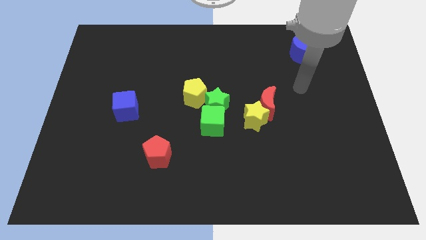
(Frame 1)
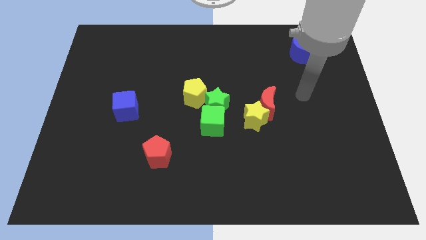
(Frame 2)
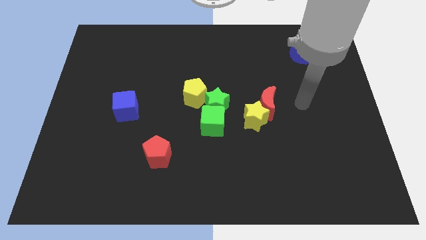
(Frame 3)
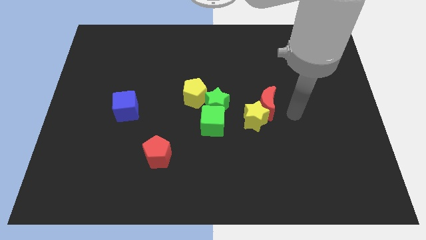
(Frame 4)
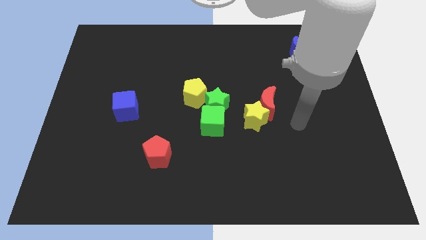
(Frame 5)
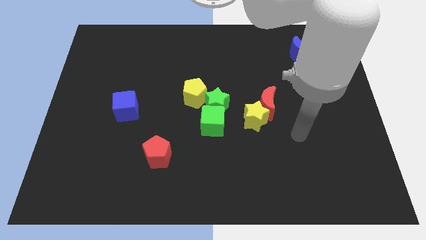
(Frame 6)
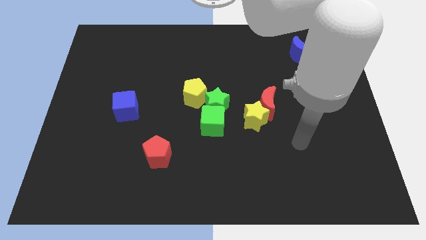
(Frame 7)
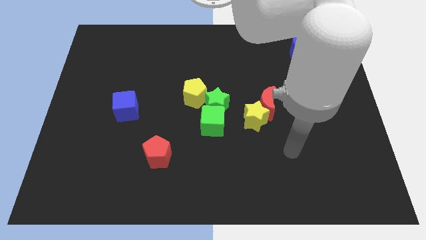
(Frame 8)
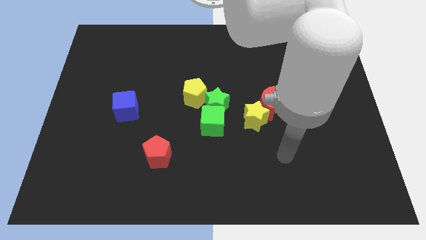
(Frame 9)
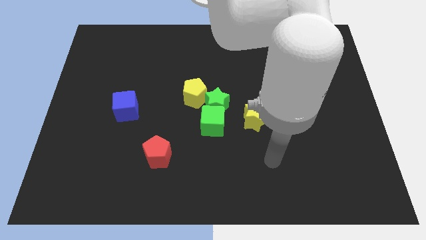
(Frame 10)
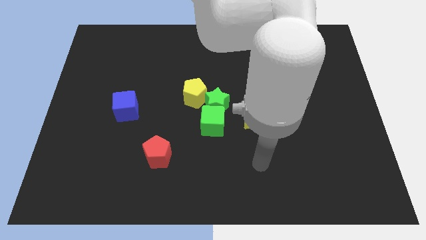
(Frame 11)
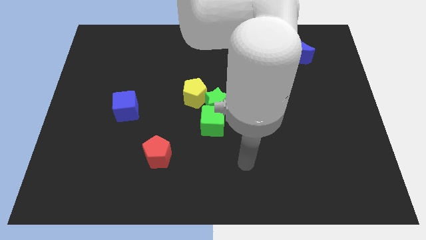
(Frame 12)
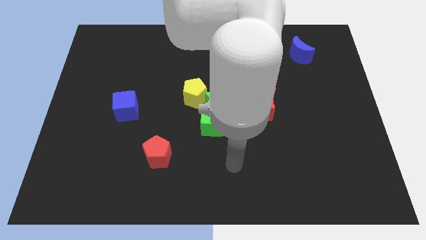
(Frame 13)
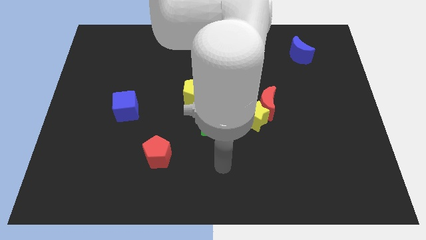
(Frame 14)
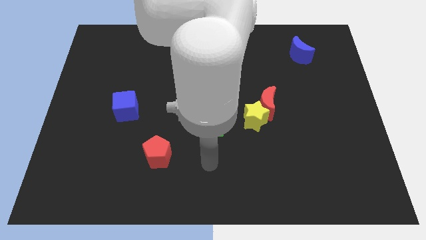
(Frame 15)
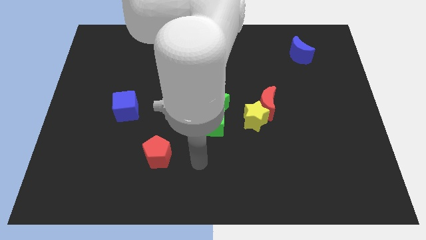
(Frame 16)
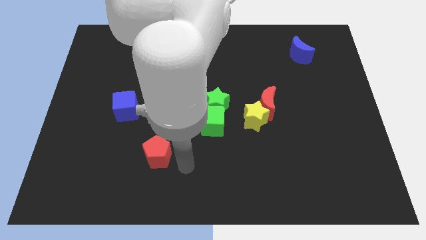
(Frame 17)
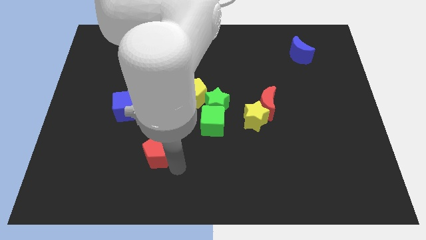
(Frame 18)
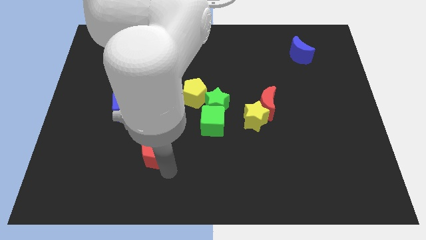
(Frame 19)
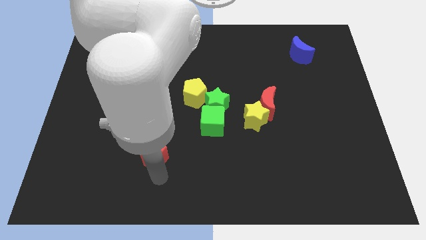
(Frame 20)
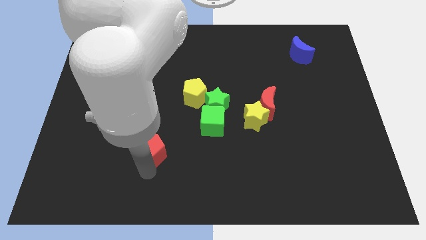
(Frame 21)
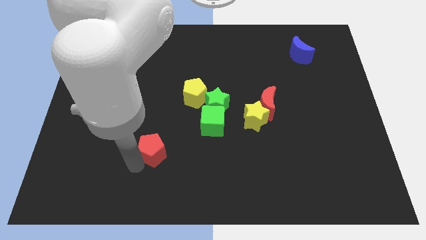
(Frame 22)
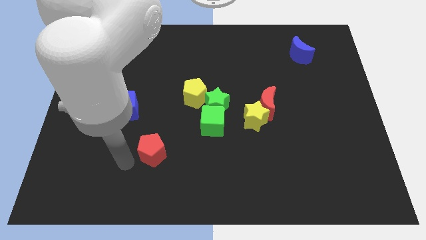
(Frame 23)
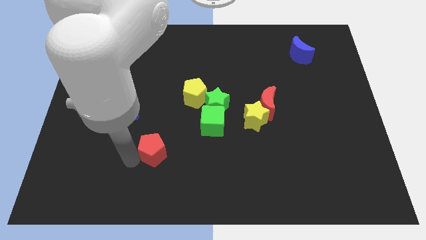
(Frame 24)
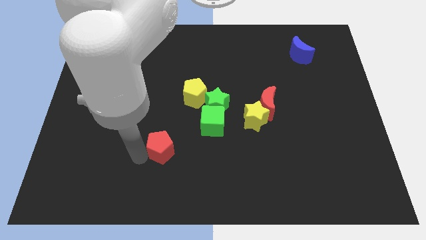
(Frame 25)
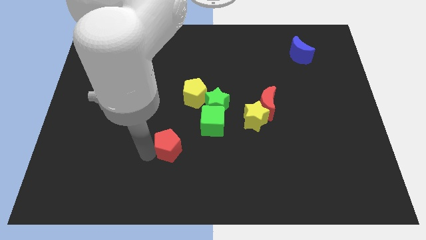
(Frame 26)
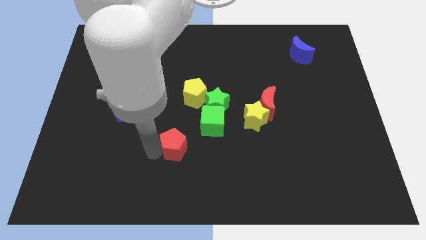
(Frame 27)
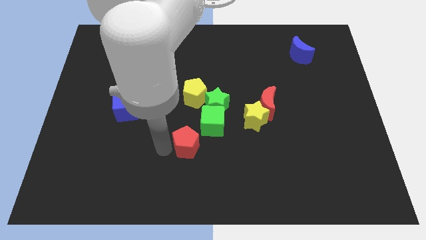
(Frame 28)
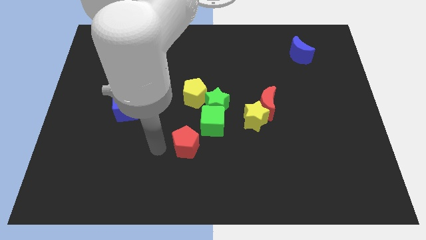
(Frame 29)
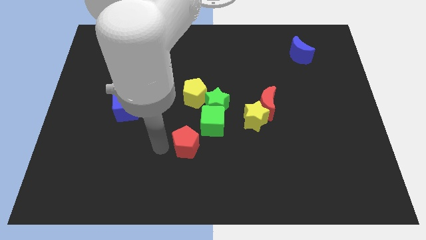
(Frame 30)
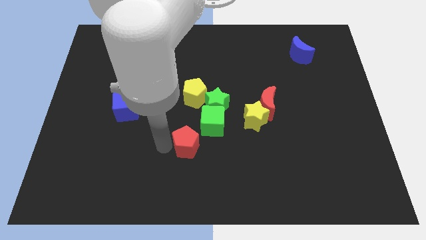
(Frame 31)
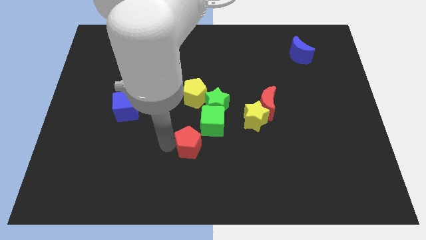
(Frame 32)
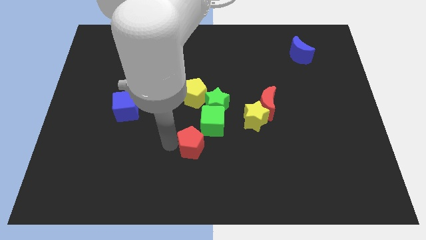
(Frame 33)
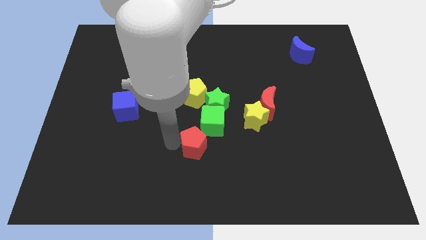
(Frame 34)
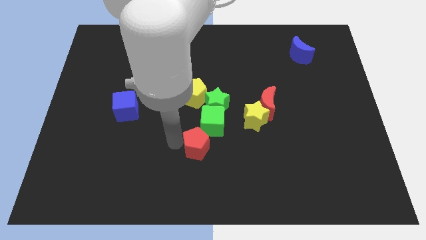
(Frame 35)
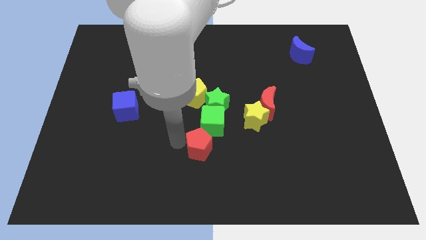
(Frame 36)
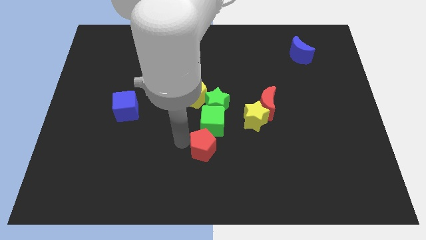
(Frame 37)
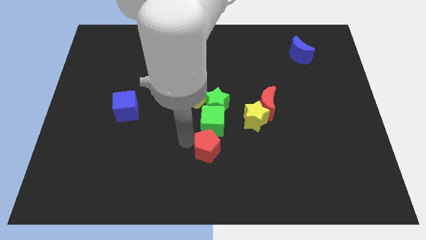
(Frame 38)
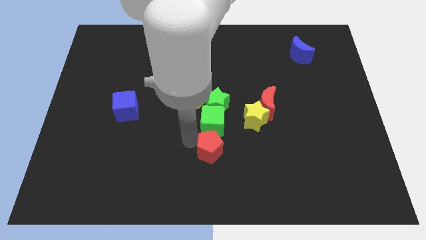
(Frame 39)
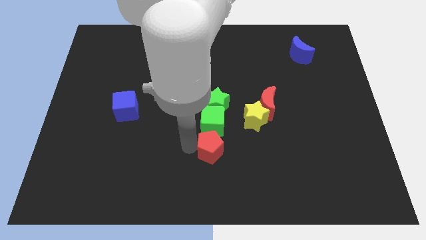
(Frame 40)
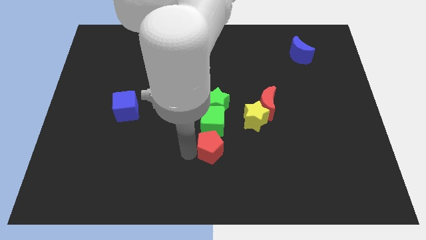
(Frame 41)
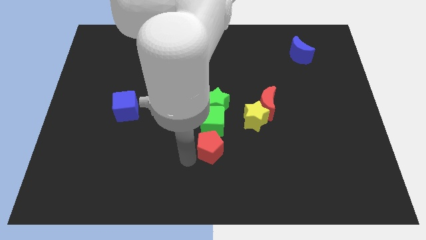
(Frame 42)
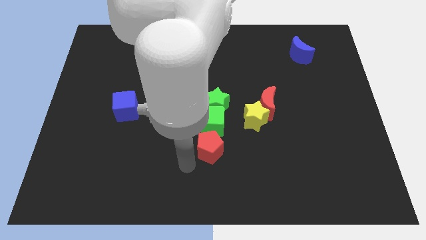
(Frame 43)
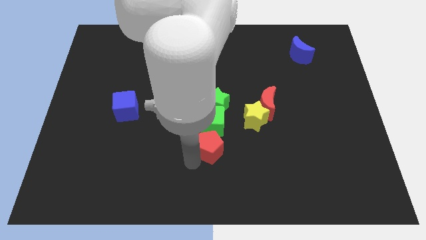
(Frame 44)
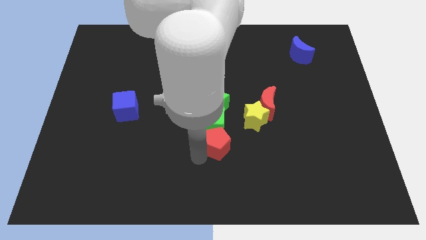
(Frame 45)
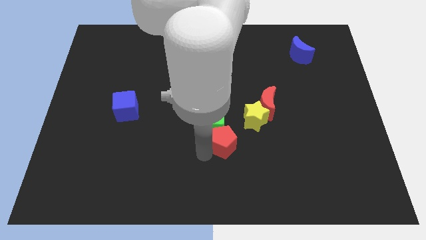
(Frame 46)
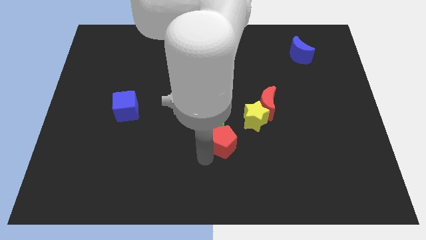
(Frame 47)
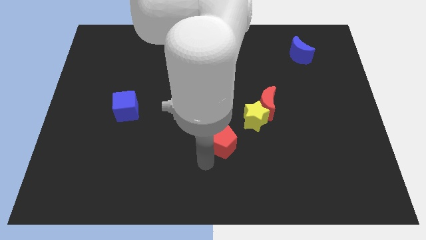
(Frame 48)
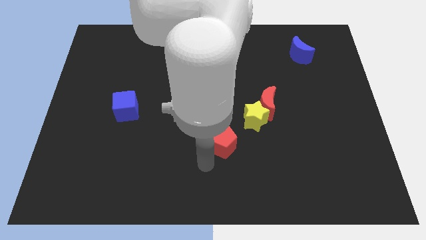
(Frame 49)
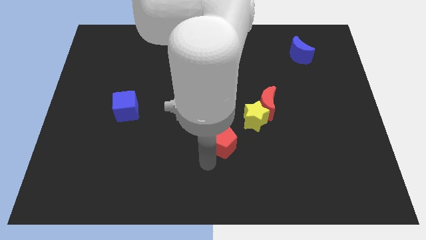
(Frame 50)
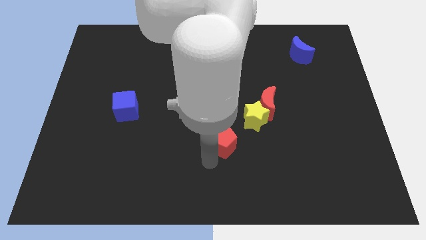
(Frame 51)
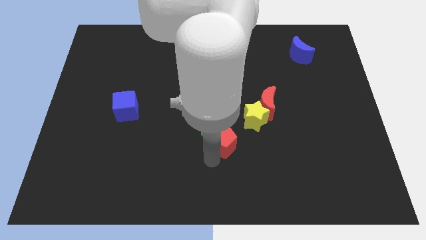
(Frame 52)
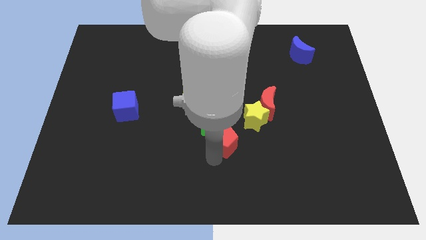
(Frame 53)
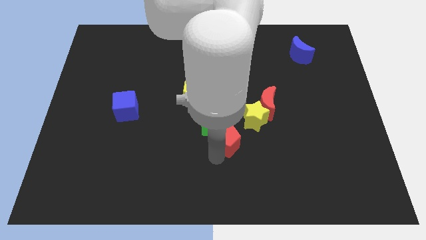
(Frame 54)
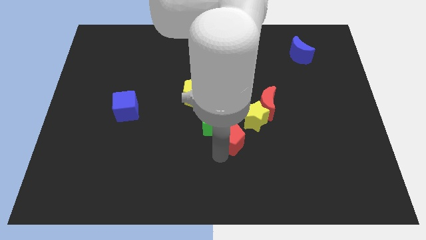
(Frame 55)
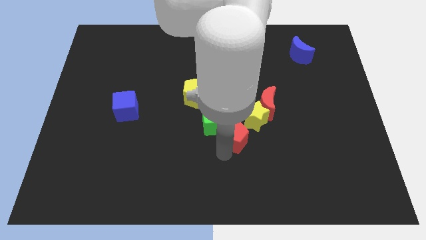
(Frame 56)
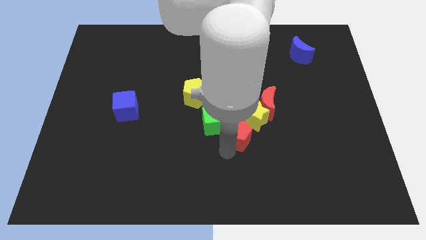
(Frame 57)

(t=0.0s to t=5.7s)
move the red pentagon to the yellow star
